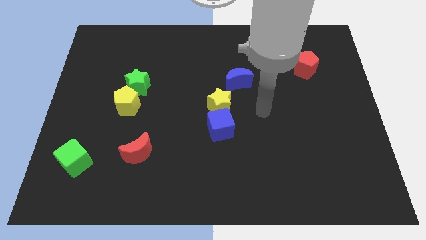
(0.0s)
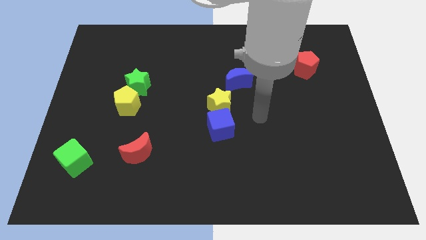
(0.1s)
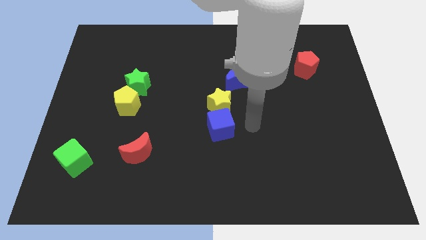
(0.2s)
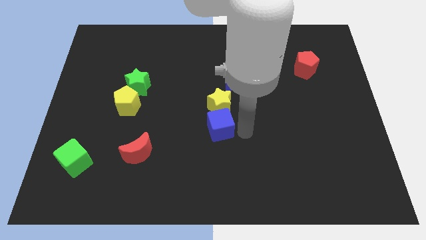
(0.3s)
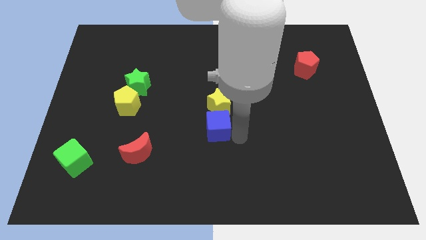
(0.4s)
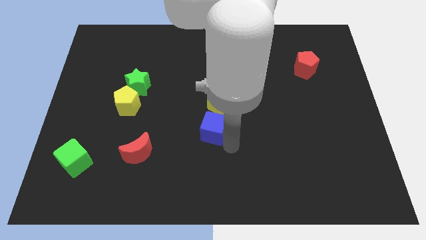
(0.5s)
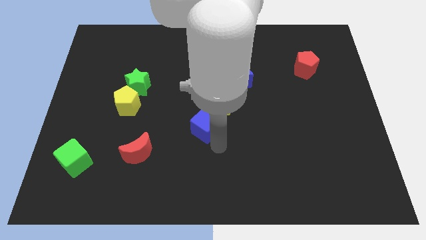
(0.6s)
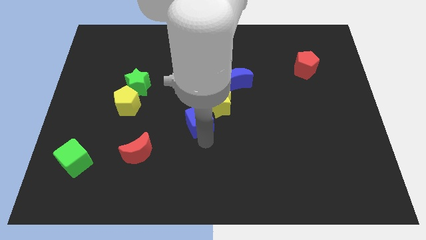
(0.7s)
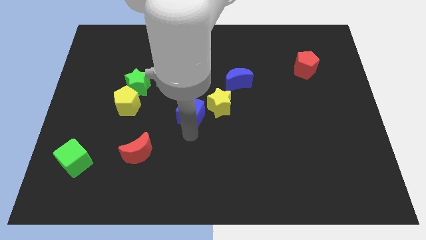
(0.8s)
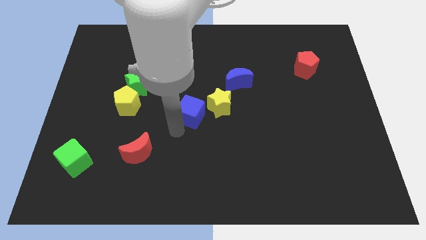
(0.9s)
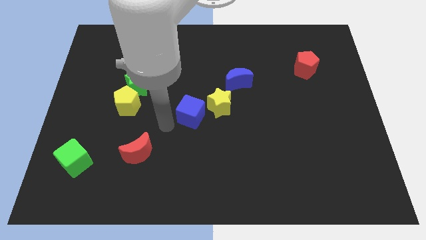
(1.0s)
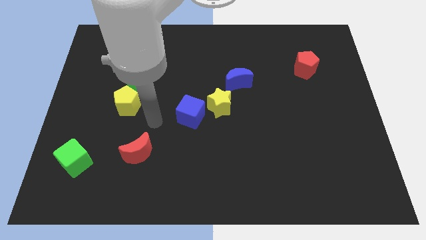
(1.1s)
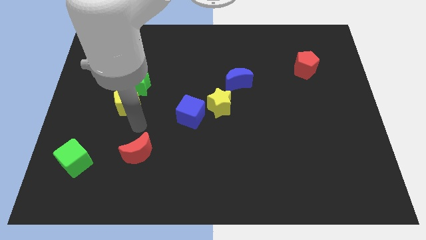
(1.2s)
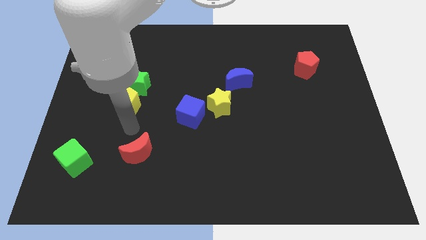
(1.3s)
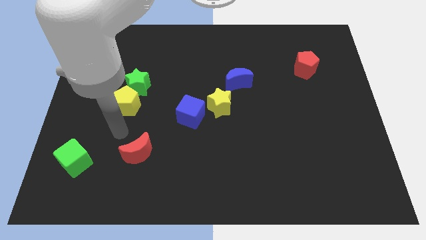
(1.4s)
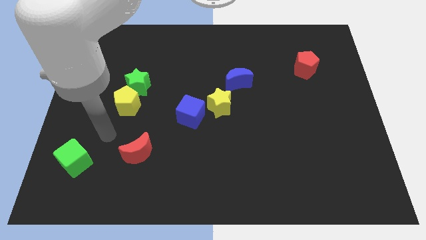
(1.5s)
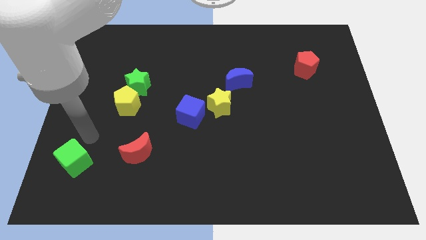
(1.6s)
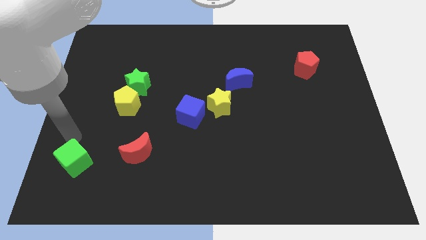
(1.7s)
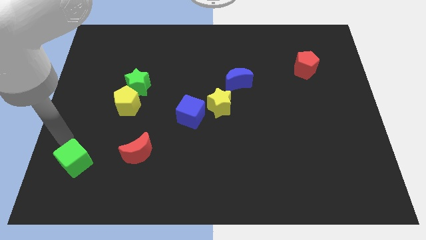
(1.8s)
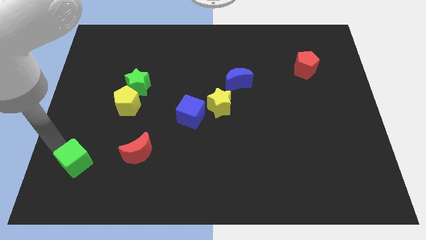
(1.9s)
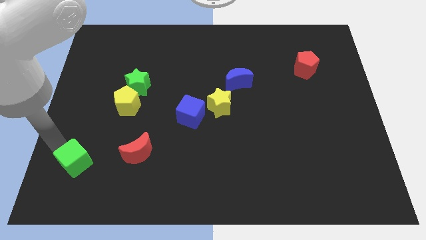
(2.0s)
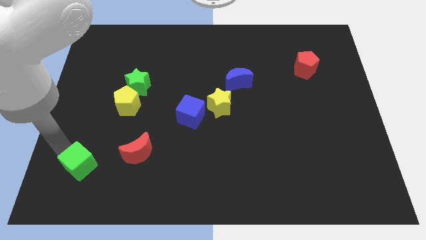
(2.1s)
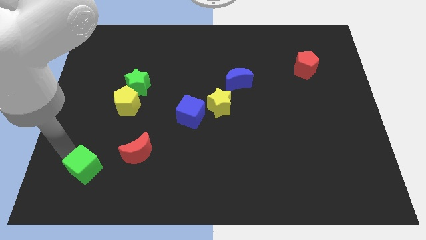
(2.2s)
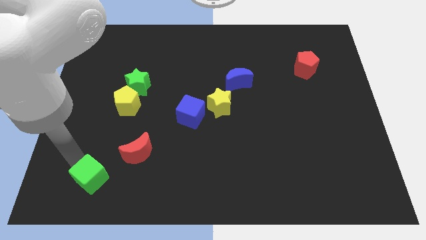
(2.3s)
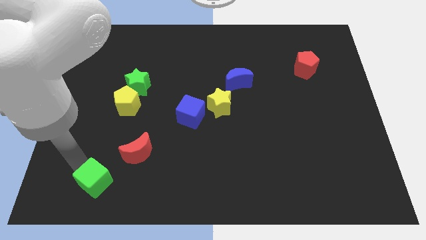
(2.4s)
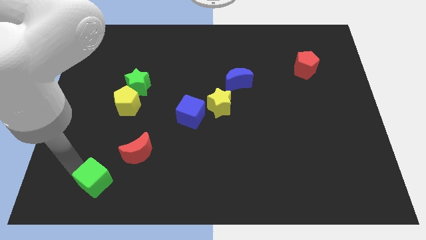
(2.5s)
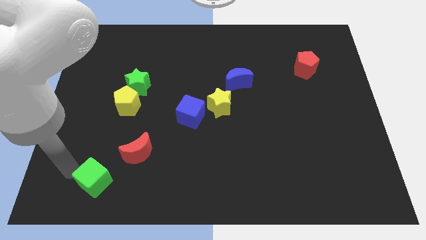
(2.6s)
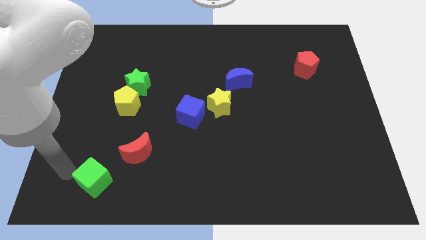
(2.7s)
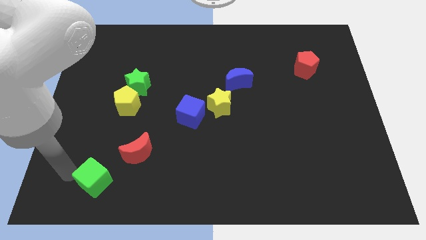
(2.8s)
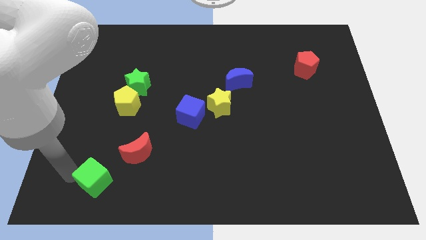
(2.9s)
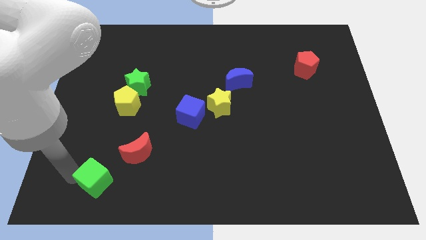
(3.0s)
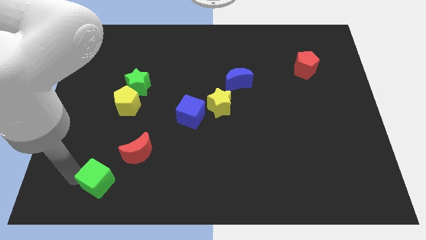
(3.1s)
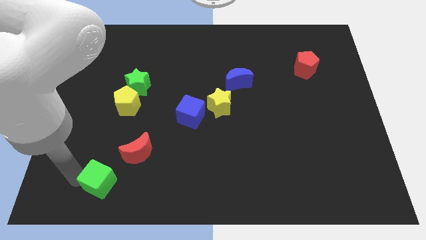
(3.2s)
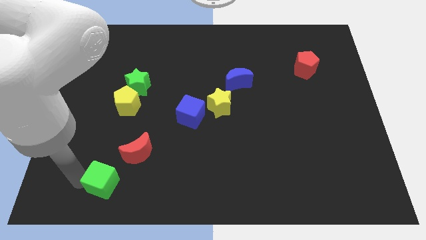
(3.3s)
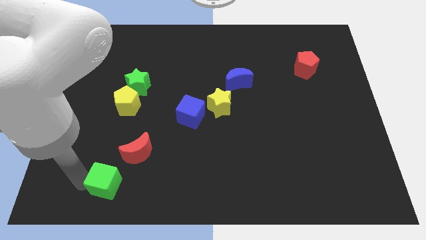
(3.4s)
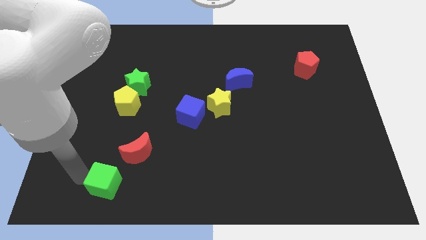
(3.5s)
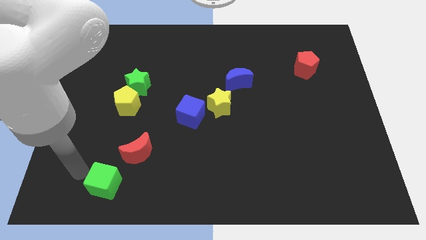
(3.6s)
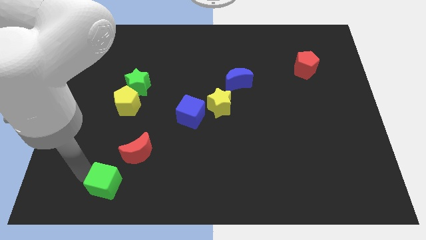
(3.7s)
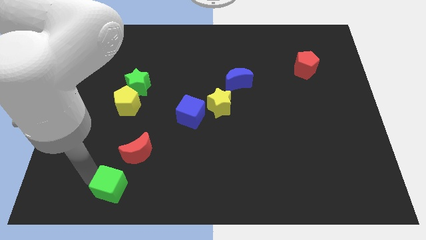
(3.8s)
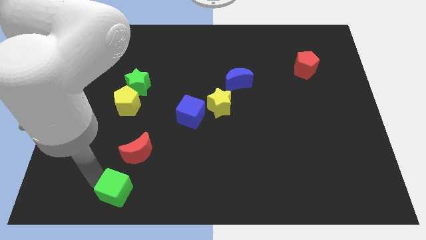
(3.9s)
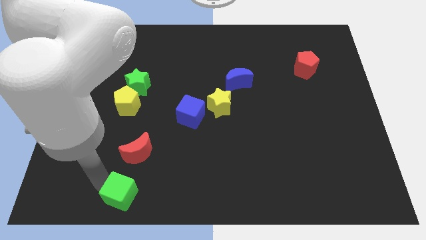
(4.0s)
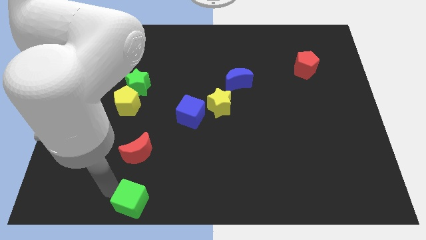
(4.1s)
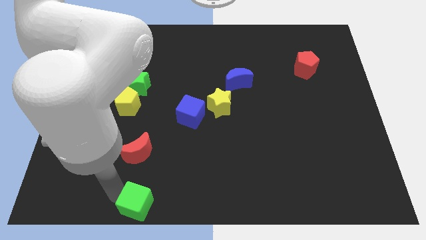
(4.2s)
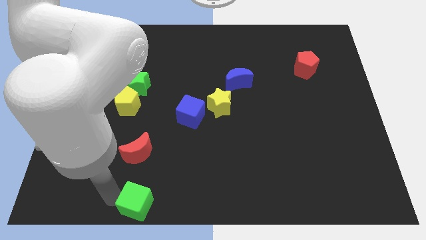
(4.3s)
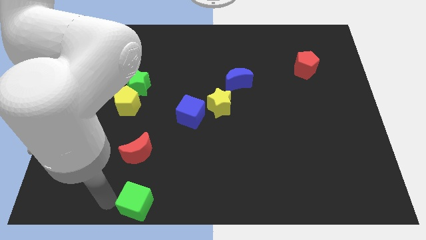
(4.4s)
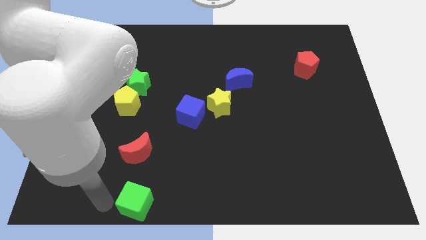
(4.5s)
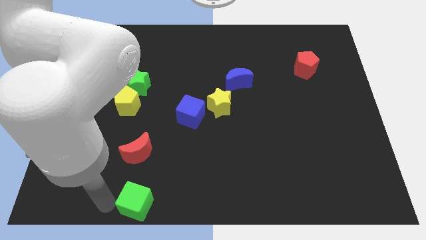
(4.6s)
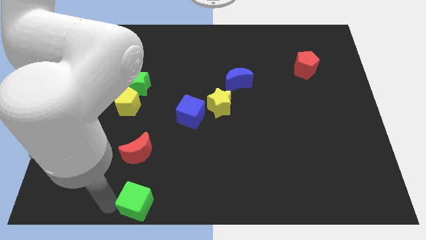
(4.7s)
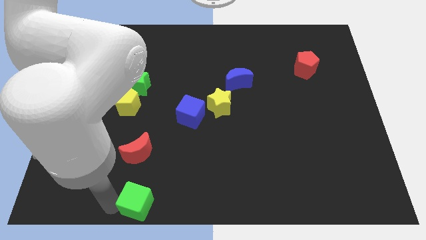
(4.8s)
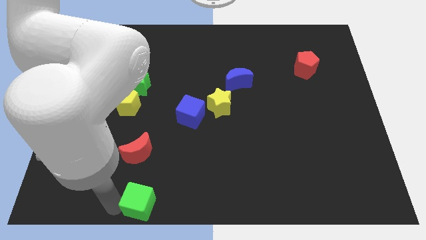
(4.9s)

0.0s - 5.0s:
move the green cube to the bottom side

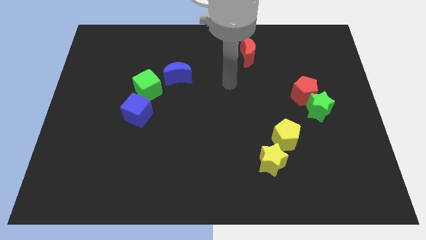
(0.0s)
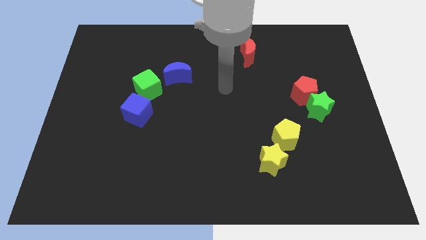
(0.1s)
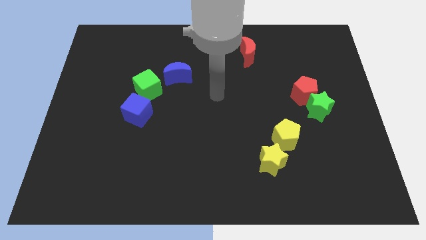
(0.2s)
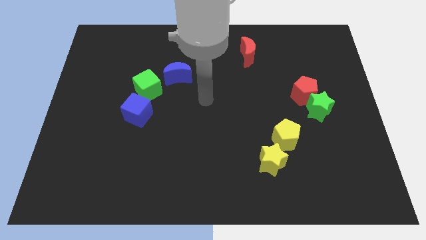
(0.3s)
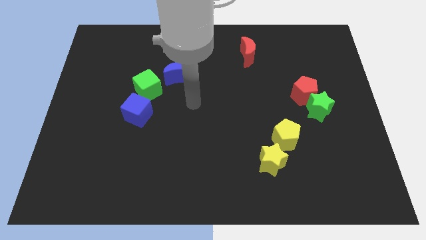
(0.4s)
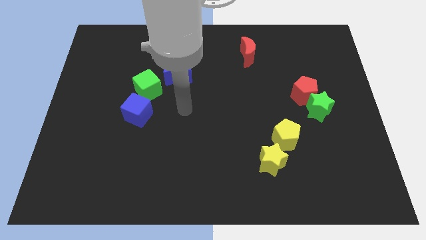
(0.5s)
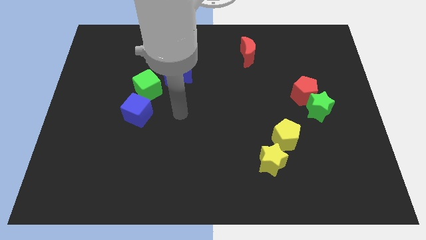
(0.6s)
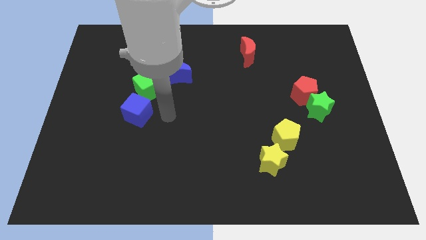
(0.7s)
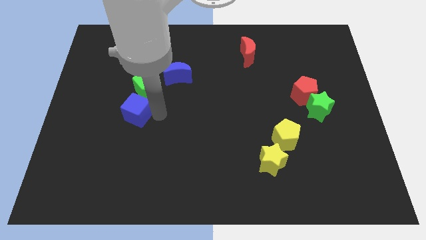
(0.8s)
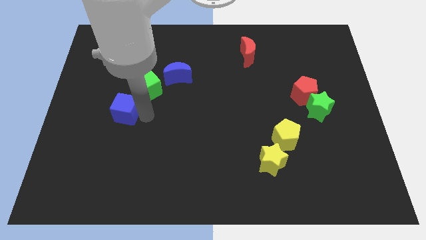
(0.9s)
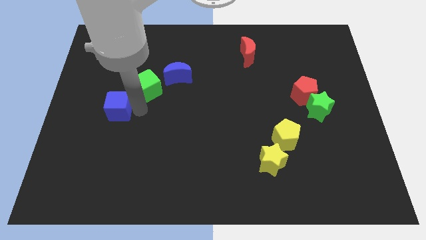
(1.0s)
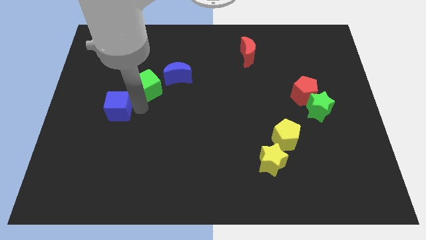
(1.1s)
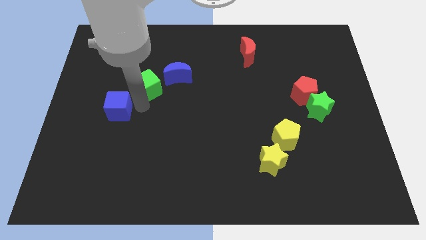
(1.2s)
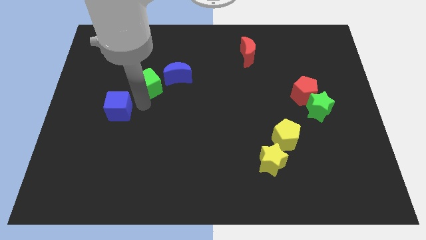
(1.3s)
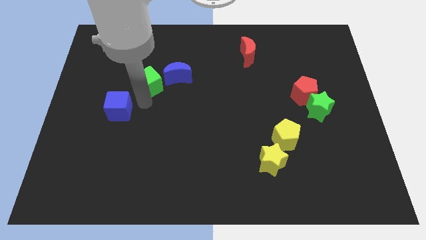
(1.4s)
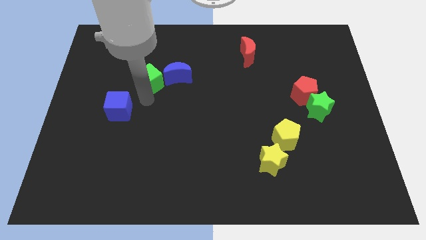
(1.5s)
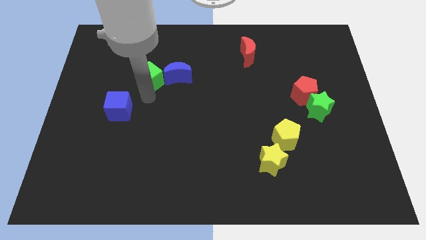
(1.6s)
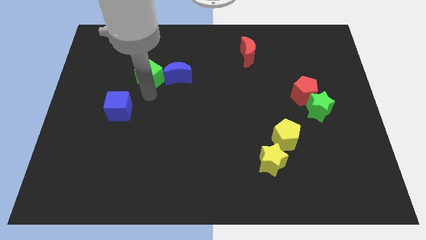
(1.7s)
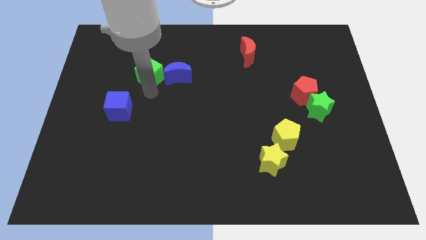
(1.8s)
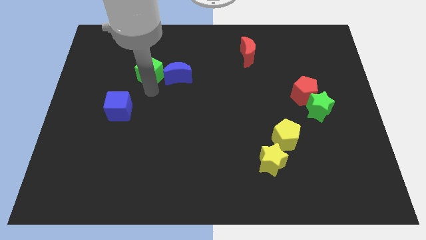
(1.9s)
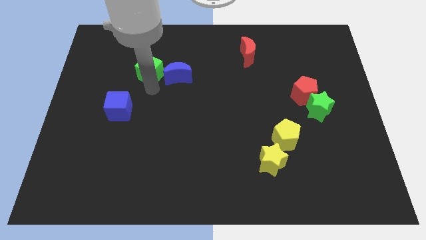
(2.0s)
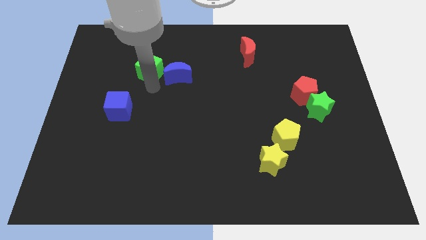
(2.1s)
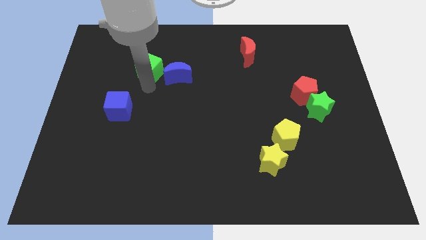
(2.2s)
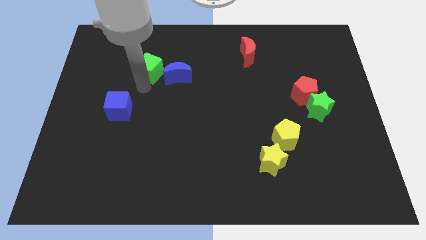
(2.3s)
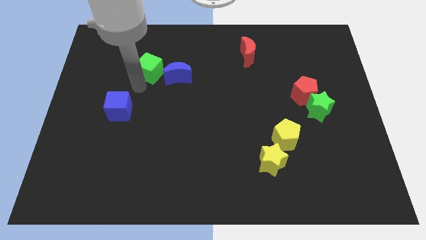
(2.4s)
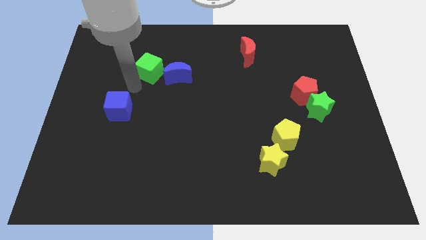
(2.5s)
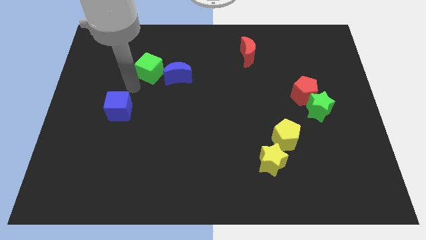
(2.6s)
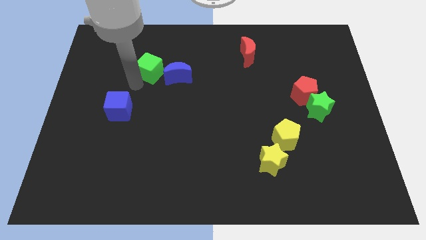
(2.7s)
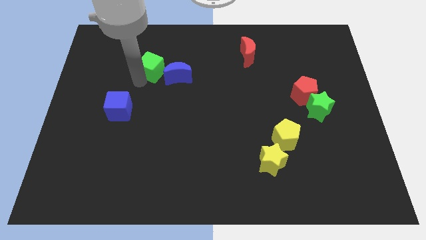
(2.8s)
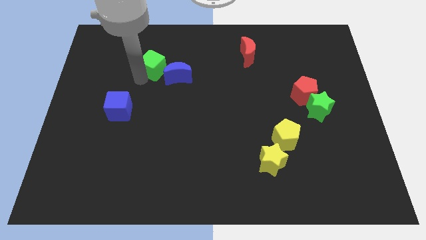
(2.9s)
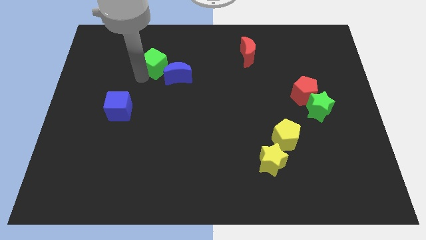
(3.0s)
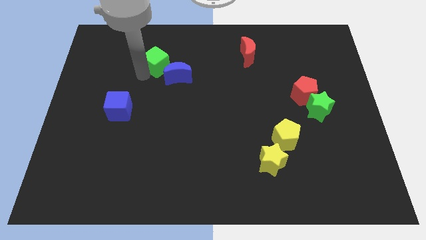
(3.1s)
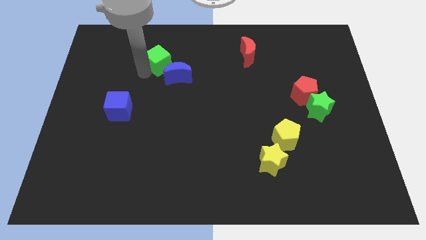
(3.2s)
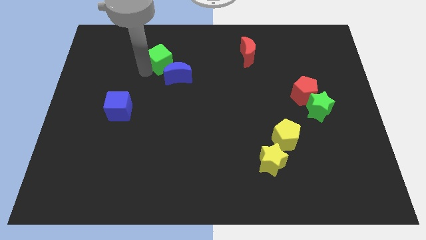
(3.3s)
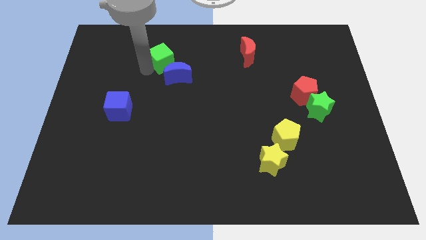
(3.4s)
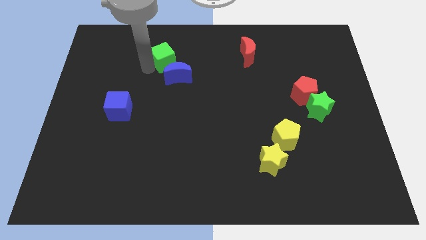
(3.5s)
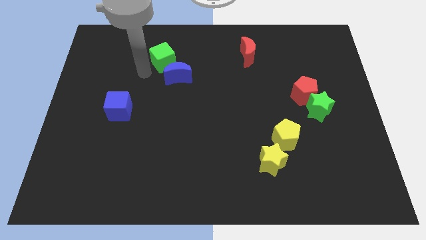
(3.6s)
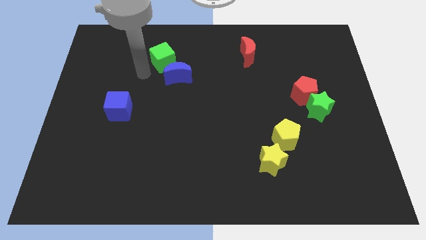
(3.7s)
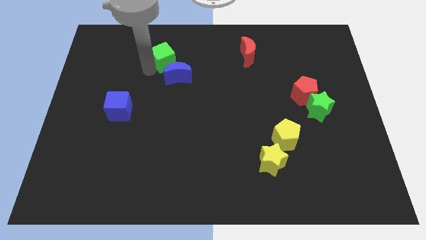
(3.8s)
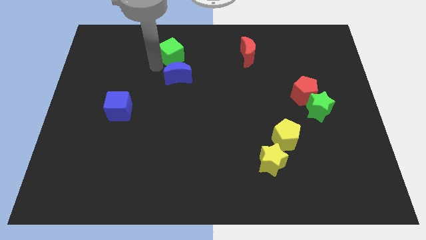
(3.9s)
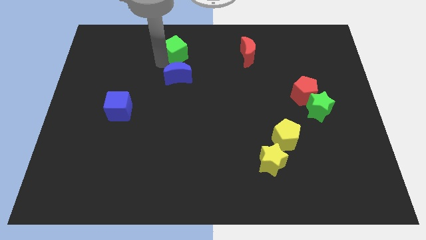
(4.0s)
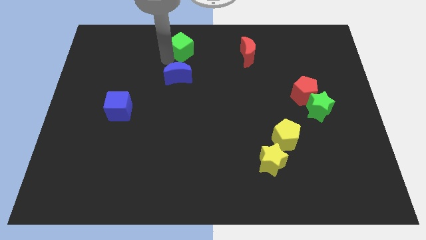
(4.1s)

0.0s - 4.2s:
push the green cube to the top side
